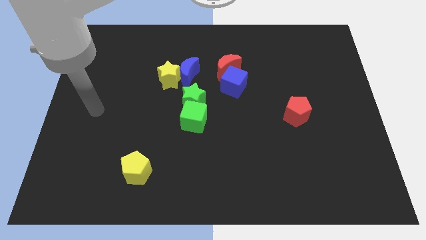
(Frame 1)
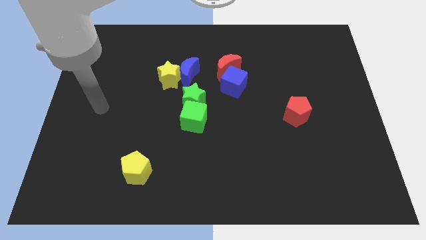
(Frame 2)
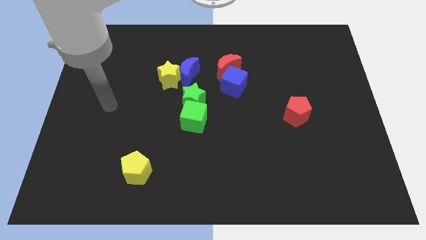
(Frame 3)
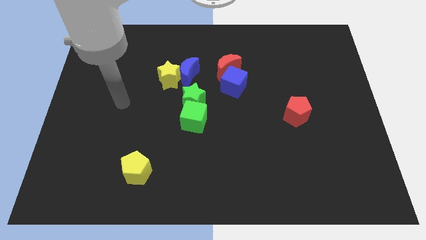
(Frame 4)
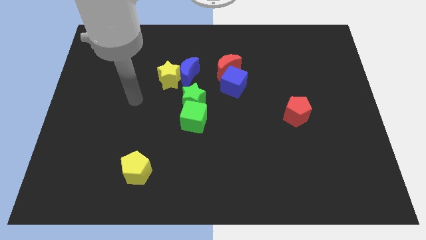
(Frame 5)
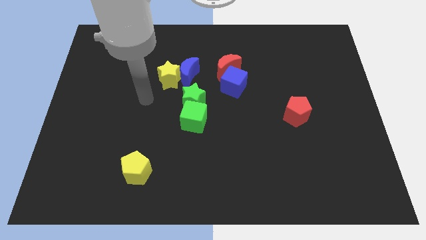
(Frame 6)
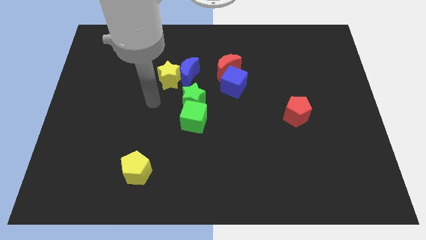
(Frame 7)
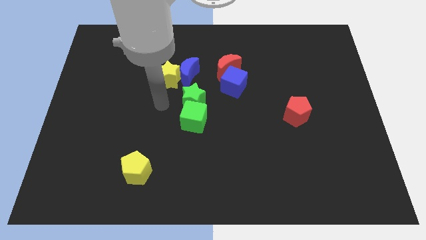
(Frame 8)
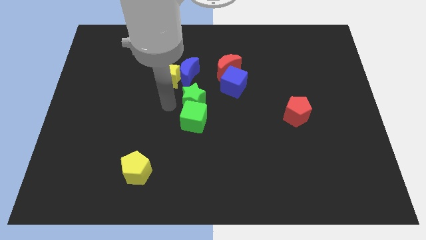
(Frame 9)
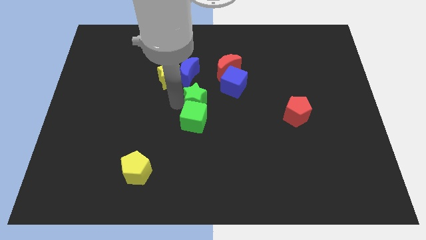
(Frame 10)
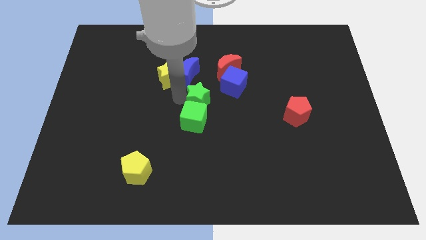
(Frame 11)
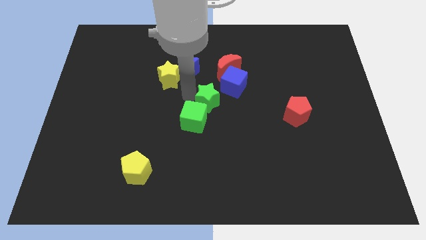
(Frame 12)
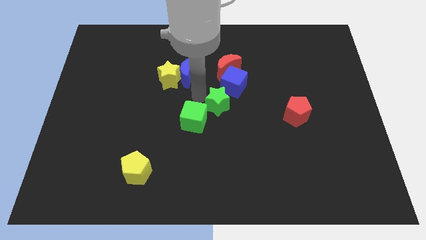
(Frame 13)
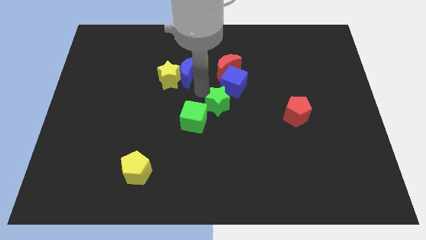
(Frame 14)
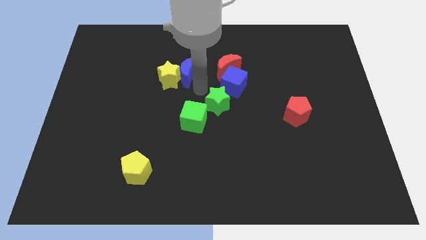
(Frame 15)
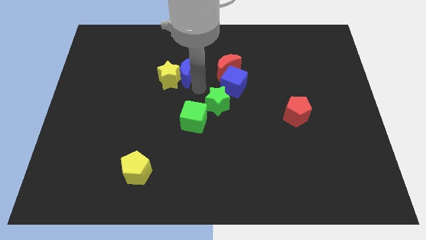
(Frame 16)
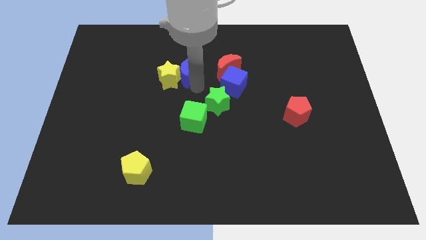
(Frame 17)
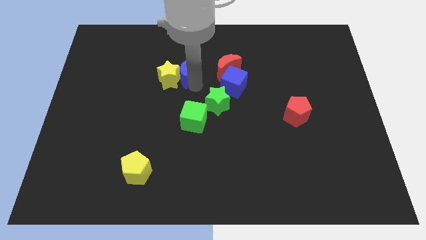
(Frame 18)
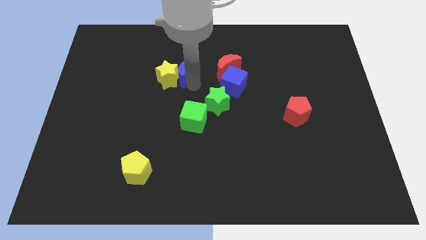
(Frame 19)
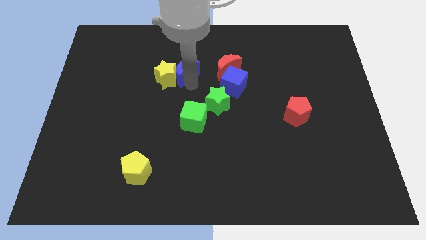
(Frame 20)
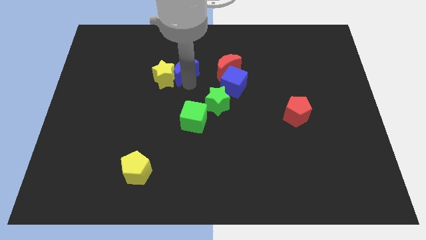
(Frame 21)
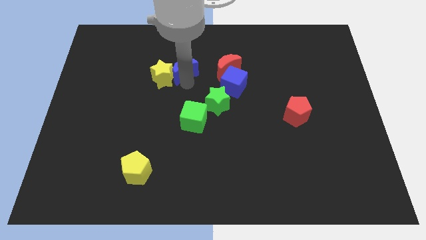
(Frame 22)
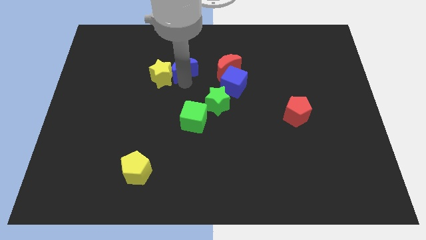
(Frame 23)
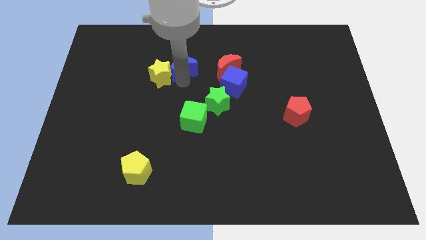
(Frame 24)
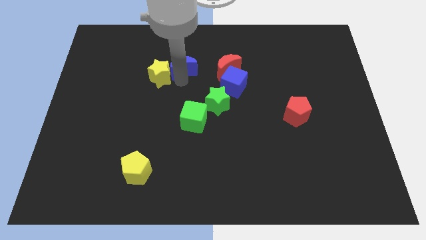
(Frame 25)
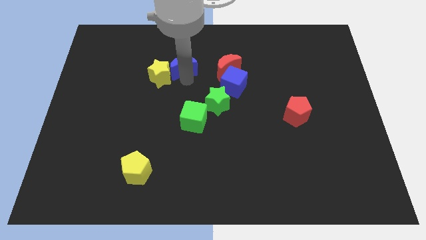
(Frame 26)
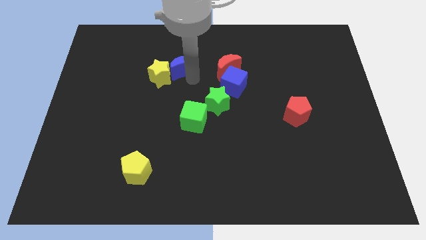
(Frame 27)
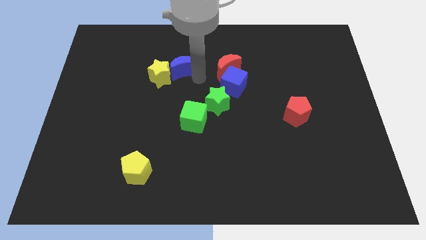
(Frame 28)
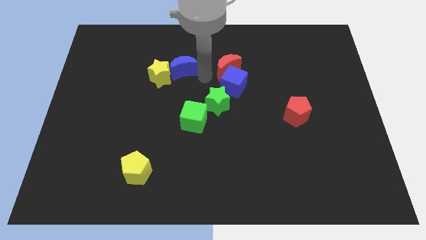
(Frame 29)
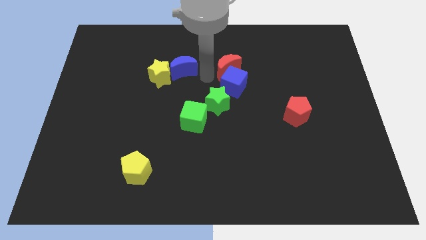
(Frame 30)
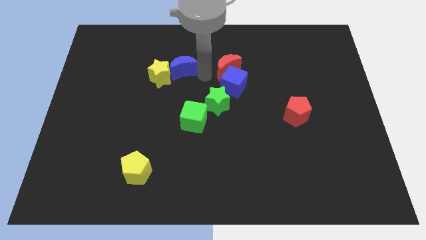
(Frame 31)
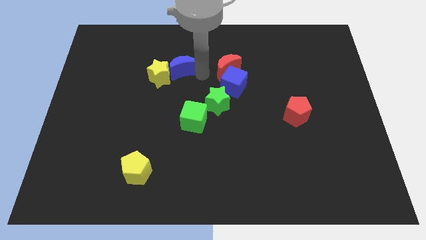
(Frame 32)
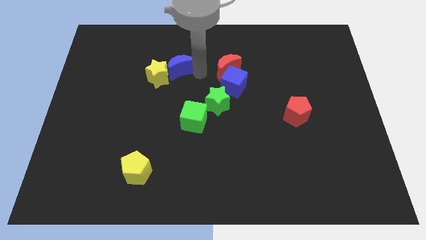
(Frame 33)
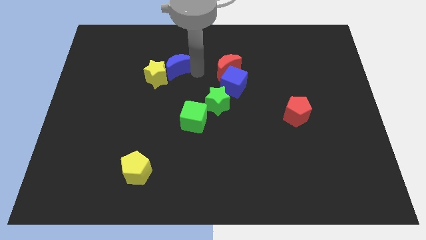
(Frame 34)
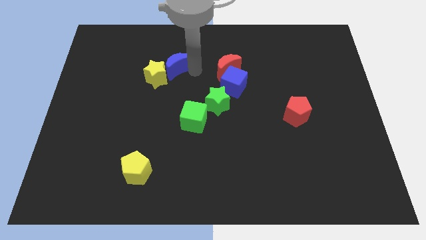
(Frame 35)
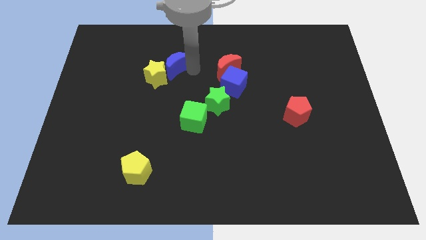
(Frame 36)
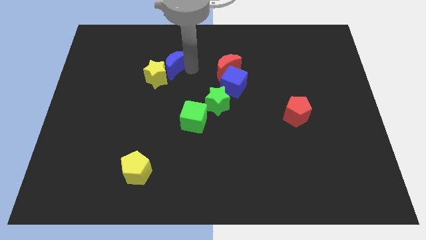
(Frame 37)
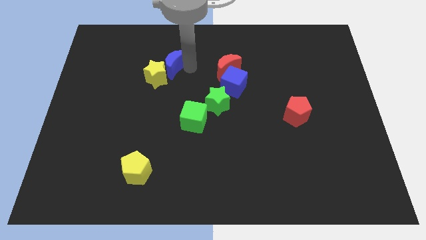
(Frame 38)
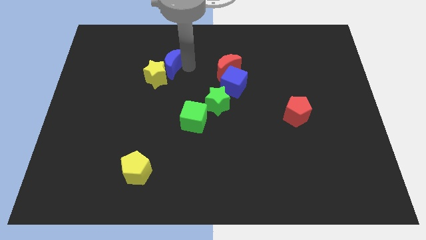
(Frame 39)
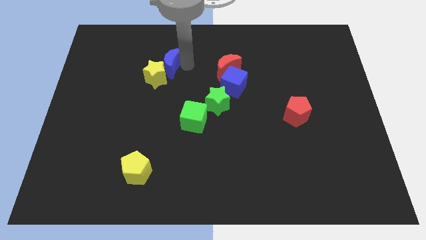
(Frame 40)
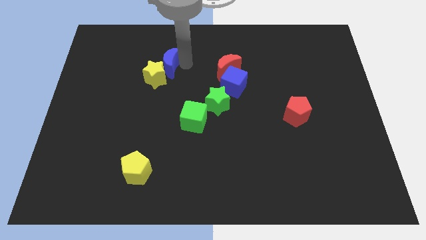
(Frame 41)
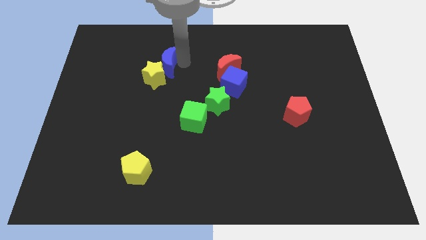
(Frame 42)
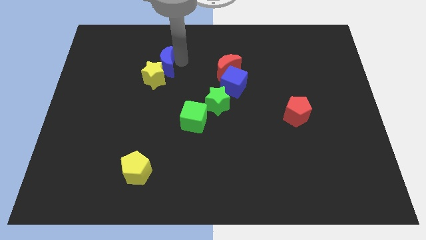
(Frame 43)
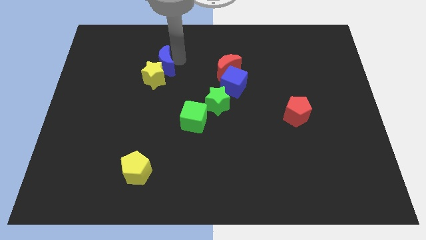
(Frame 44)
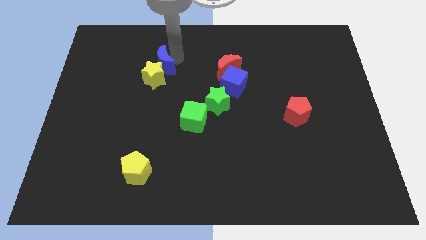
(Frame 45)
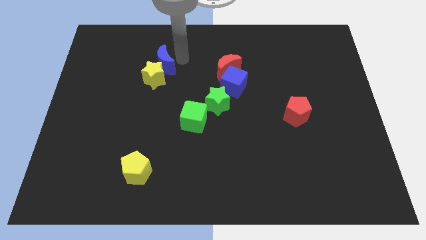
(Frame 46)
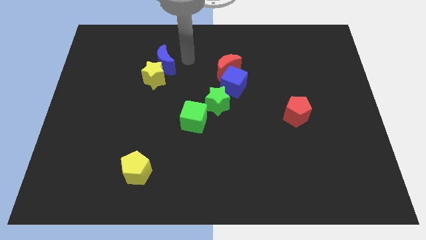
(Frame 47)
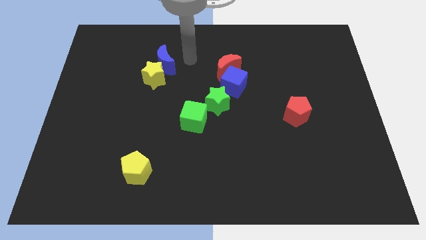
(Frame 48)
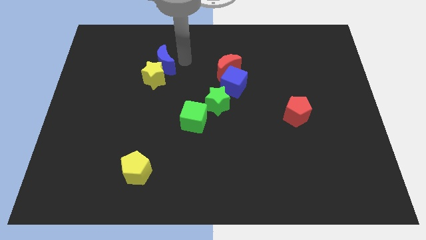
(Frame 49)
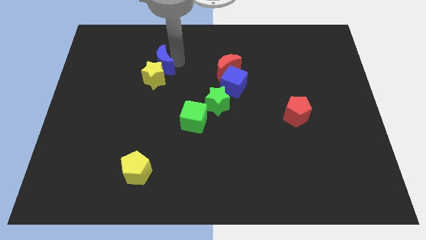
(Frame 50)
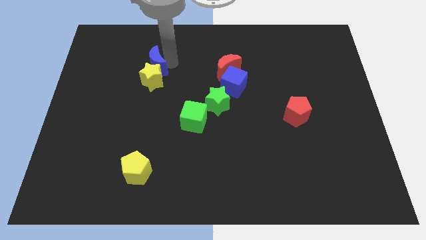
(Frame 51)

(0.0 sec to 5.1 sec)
push the blue moon to the left slightly

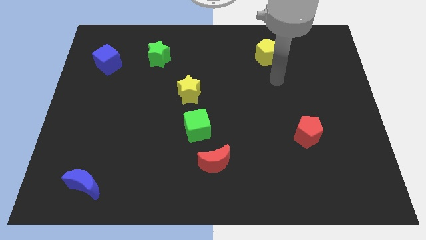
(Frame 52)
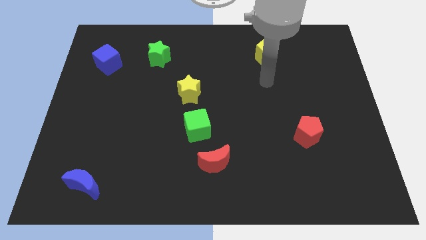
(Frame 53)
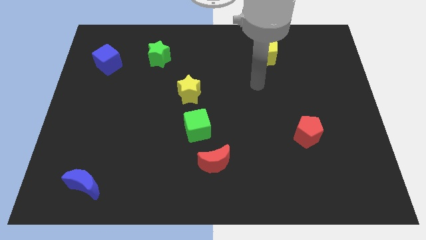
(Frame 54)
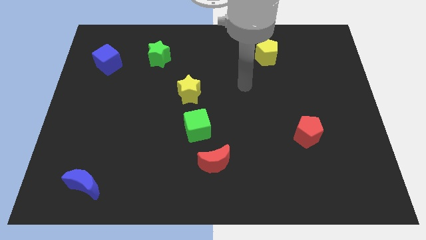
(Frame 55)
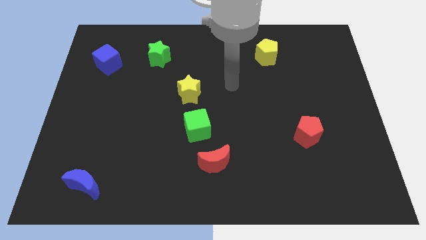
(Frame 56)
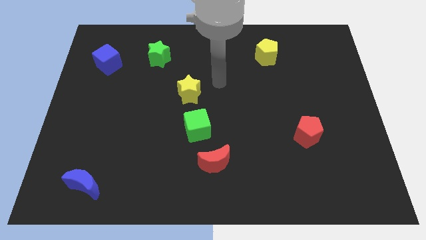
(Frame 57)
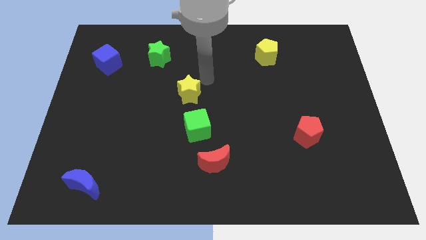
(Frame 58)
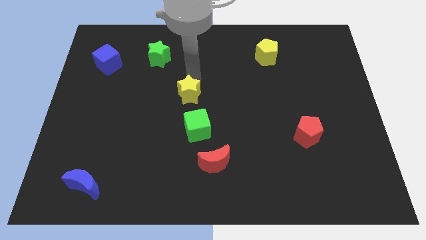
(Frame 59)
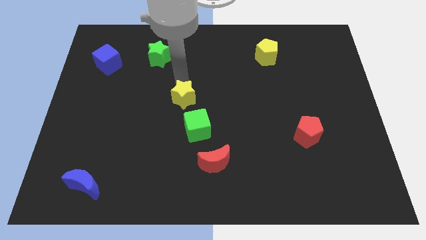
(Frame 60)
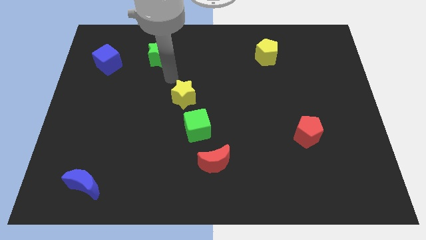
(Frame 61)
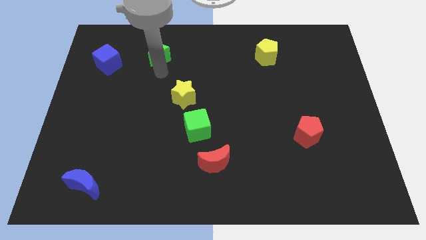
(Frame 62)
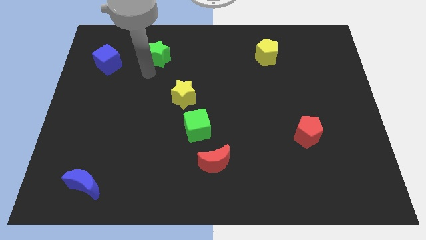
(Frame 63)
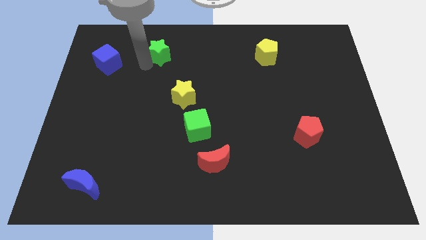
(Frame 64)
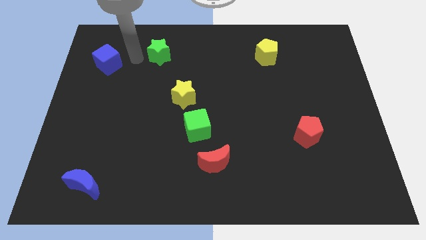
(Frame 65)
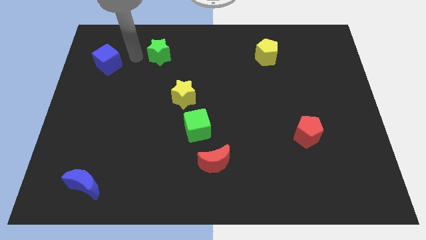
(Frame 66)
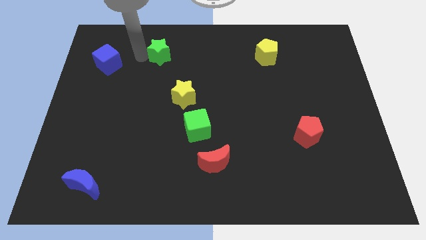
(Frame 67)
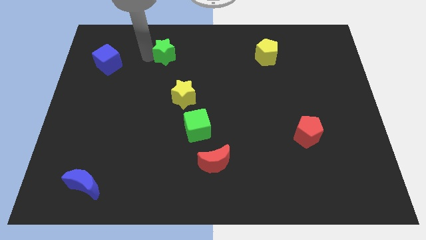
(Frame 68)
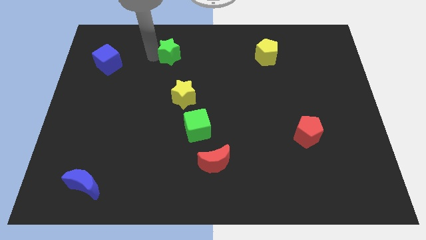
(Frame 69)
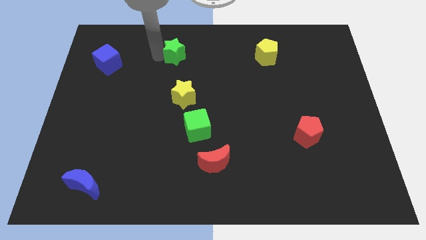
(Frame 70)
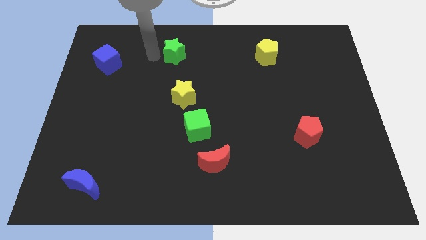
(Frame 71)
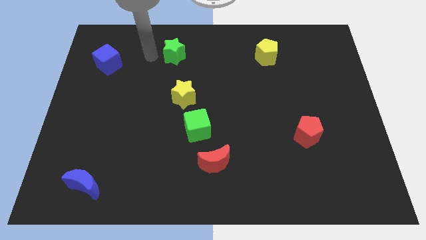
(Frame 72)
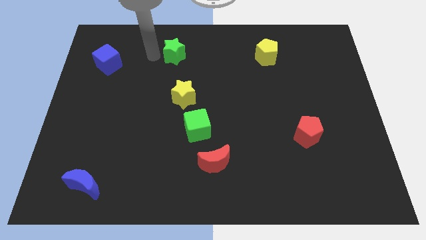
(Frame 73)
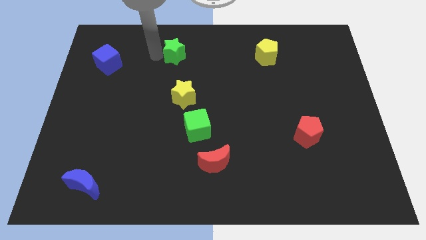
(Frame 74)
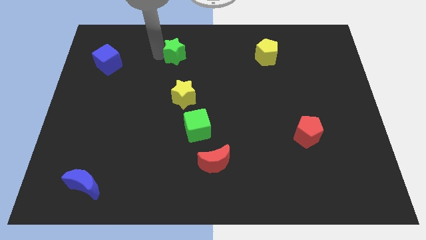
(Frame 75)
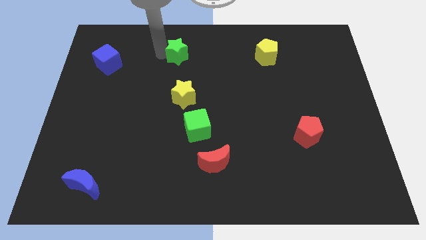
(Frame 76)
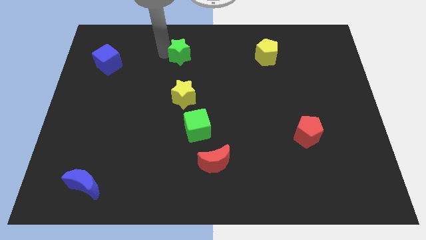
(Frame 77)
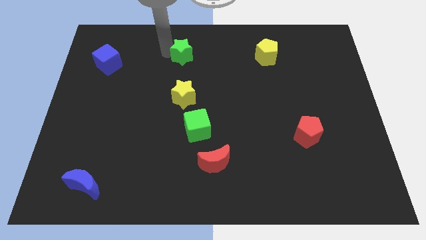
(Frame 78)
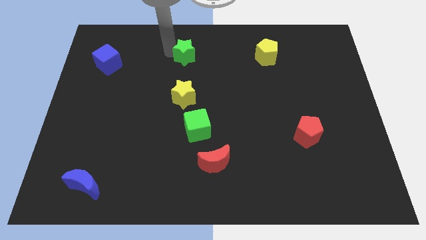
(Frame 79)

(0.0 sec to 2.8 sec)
push the green star right a little bit
